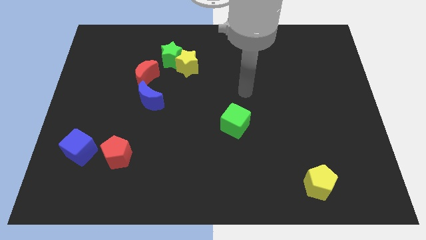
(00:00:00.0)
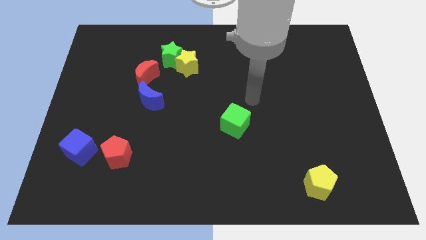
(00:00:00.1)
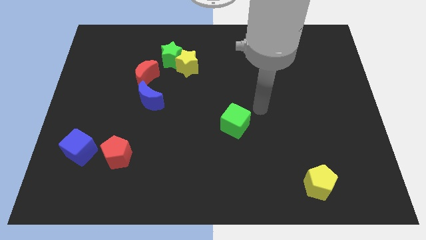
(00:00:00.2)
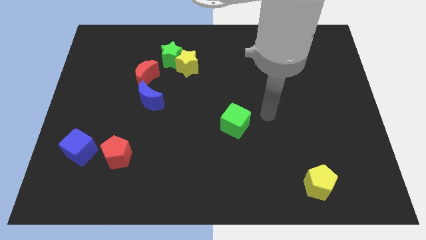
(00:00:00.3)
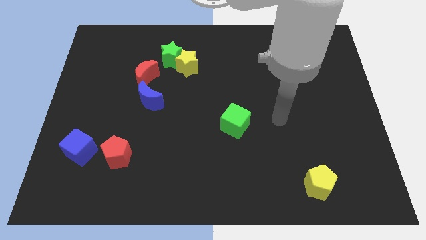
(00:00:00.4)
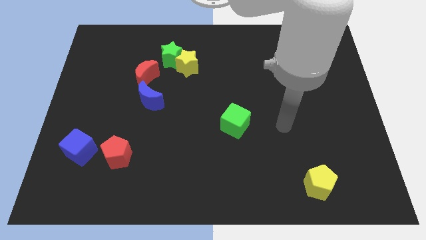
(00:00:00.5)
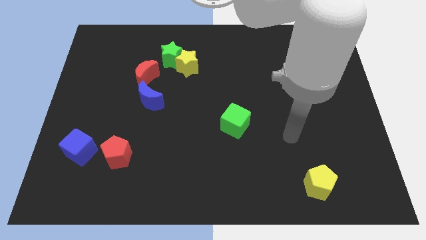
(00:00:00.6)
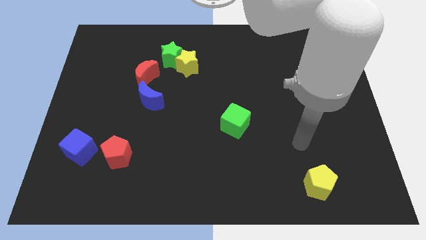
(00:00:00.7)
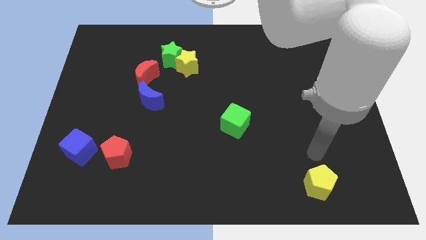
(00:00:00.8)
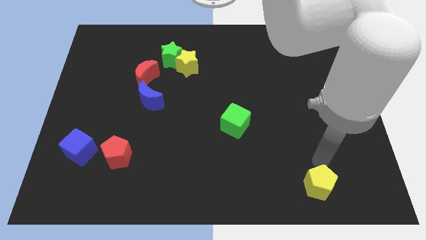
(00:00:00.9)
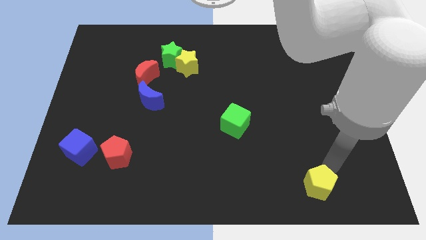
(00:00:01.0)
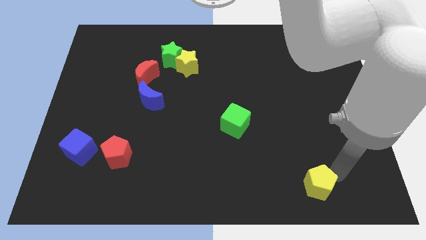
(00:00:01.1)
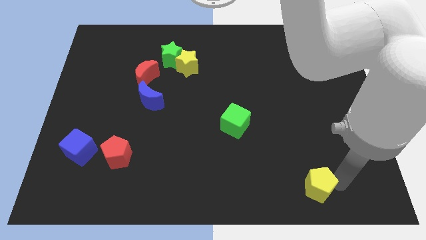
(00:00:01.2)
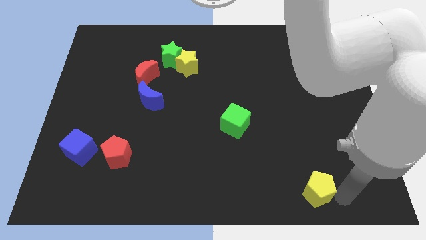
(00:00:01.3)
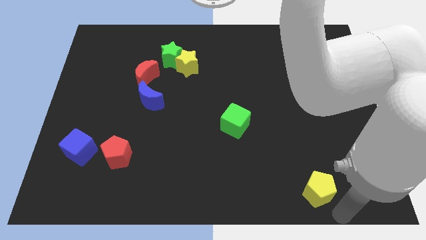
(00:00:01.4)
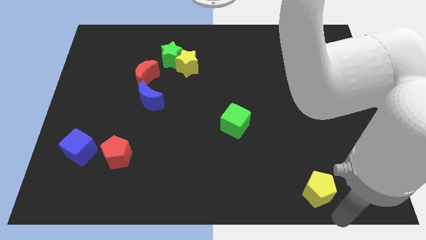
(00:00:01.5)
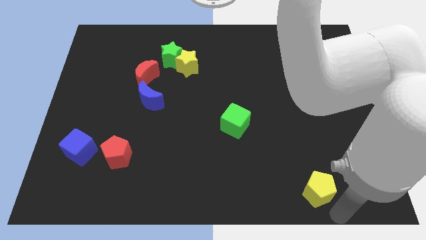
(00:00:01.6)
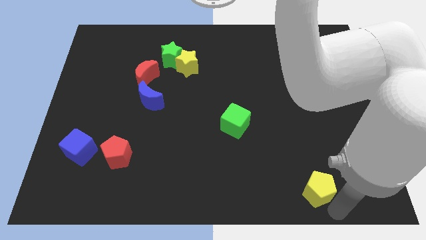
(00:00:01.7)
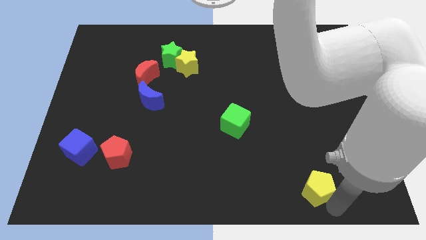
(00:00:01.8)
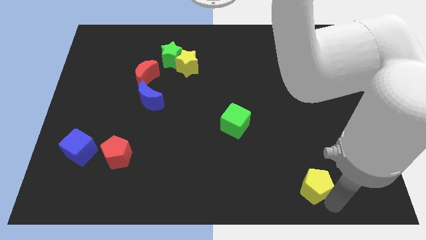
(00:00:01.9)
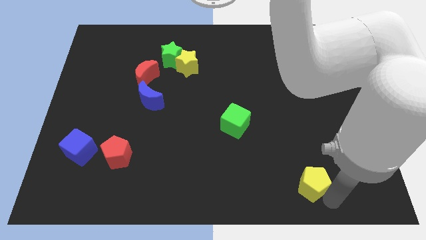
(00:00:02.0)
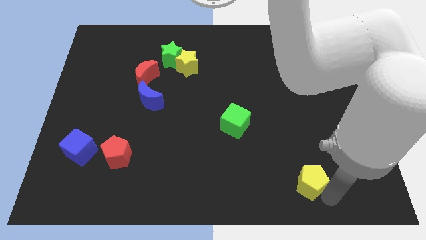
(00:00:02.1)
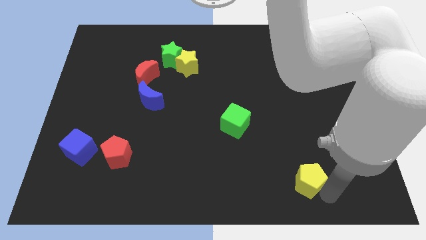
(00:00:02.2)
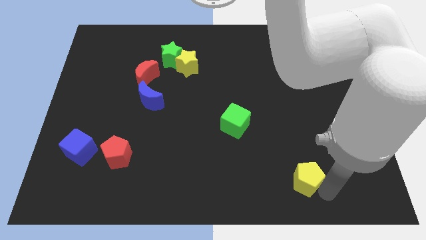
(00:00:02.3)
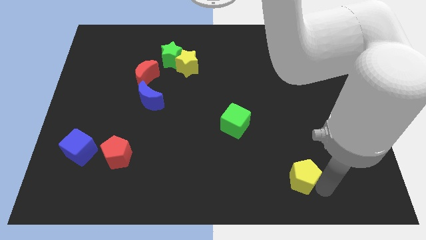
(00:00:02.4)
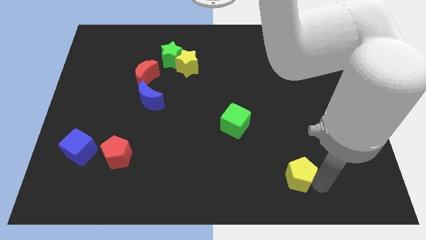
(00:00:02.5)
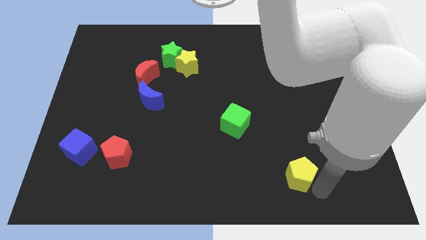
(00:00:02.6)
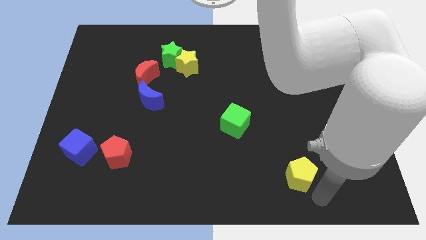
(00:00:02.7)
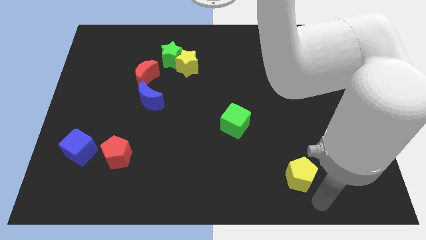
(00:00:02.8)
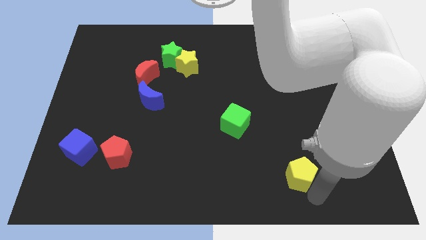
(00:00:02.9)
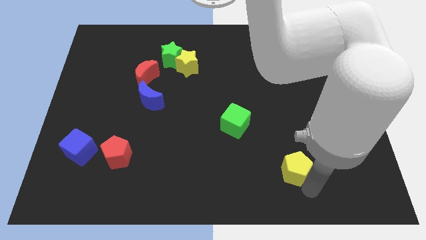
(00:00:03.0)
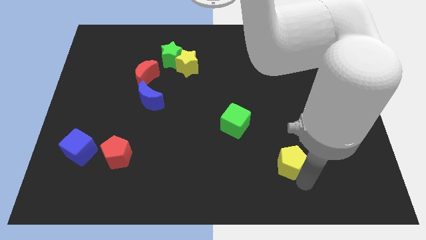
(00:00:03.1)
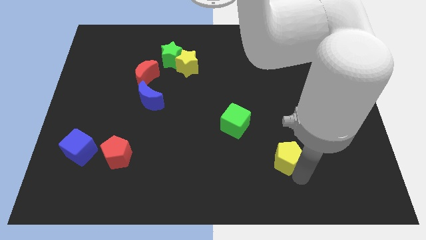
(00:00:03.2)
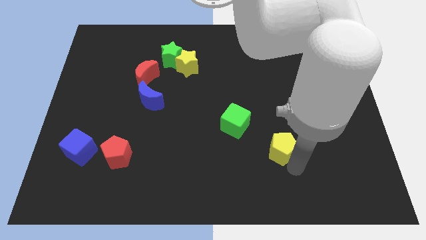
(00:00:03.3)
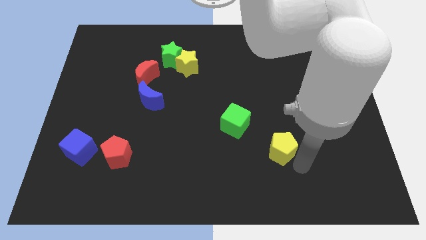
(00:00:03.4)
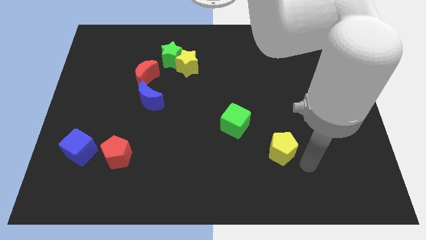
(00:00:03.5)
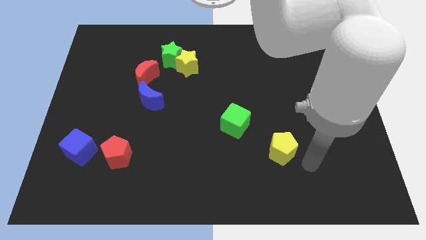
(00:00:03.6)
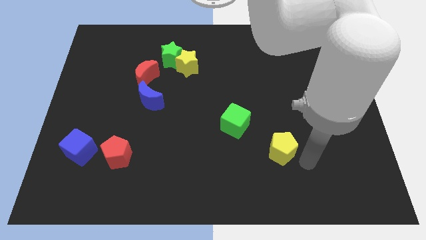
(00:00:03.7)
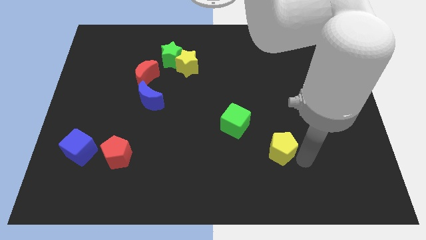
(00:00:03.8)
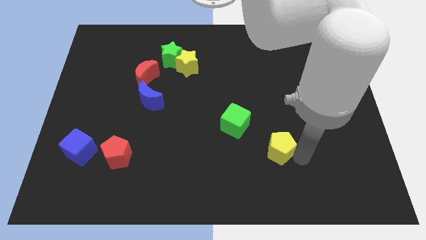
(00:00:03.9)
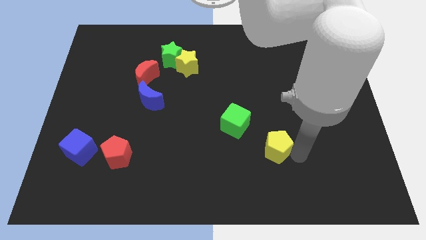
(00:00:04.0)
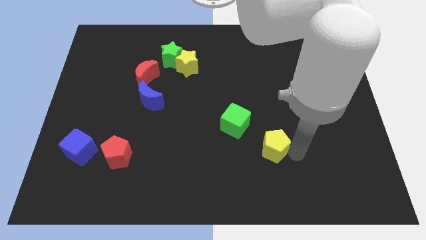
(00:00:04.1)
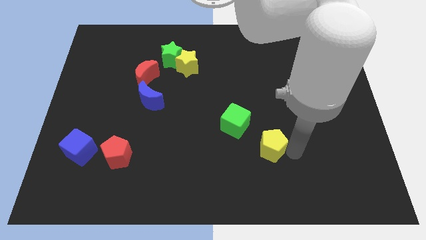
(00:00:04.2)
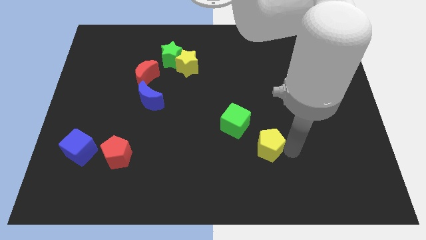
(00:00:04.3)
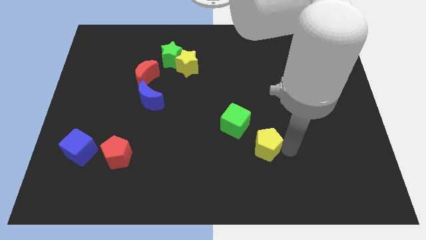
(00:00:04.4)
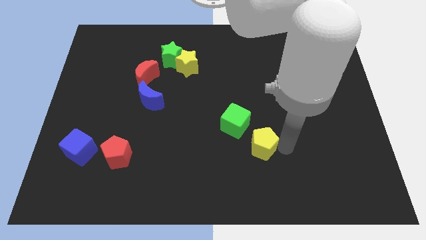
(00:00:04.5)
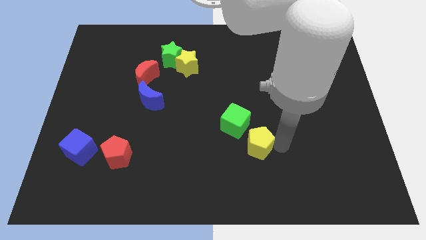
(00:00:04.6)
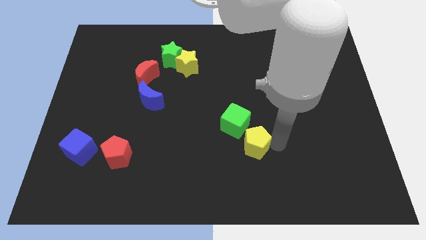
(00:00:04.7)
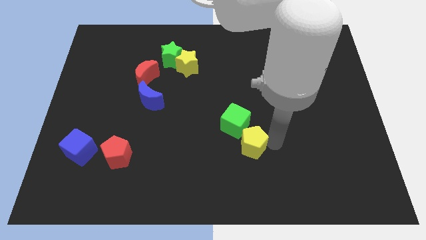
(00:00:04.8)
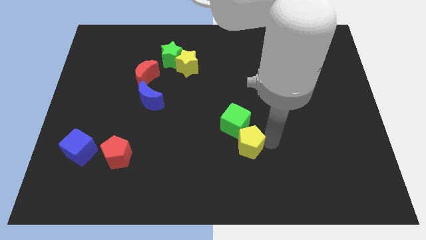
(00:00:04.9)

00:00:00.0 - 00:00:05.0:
put the yellow pentagon close to the green cube

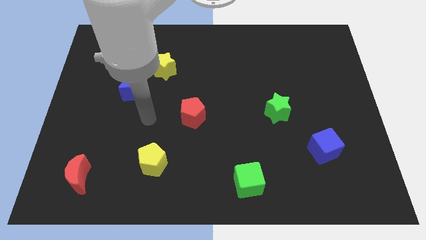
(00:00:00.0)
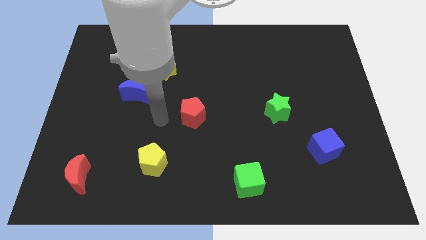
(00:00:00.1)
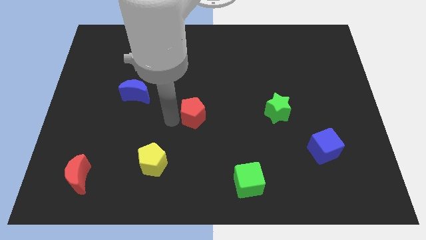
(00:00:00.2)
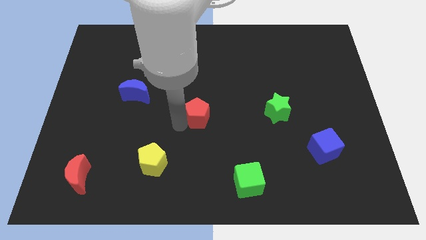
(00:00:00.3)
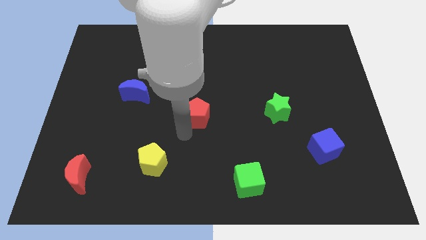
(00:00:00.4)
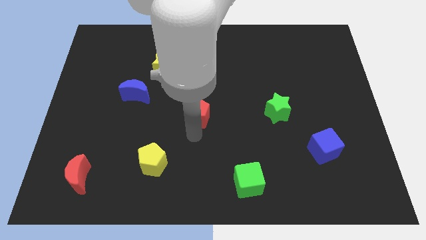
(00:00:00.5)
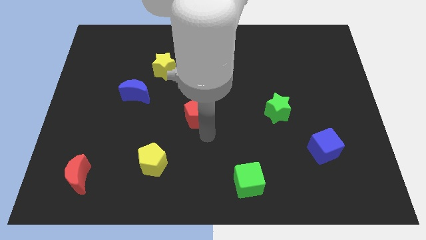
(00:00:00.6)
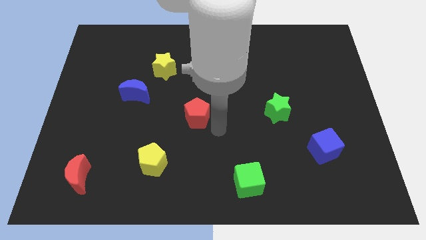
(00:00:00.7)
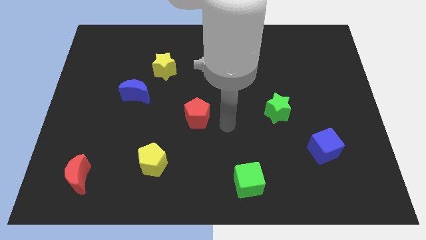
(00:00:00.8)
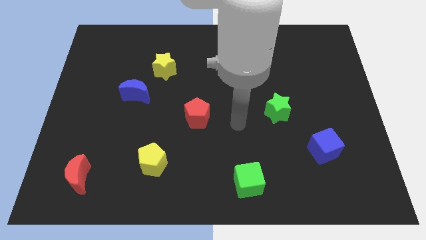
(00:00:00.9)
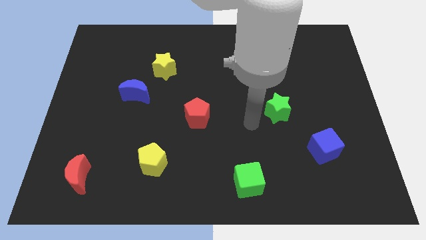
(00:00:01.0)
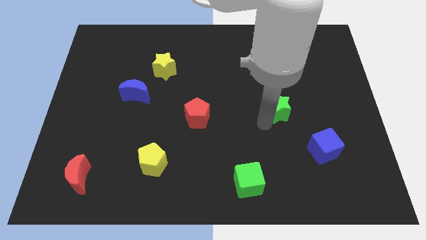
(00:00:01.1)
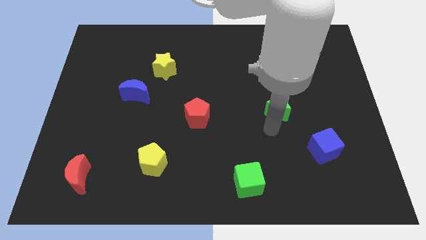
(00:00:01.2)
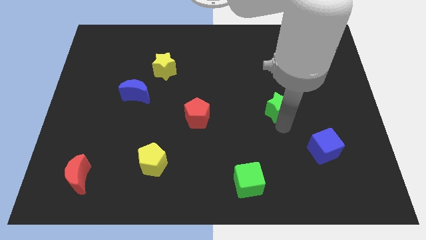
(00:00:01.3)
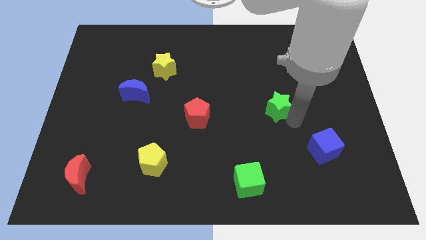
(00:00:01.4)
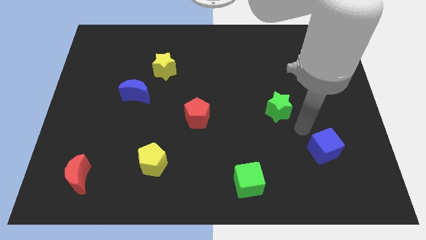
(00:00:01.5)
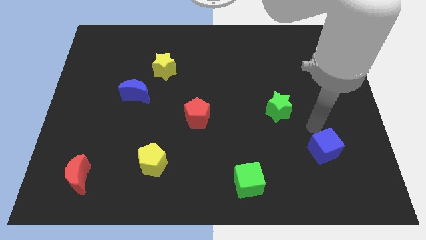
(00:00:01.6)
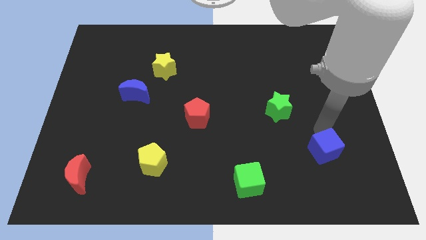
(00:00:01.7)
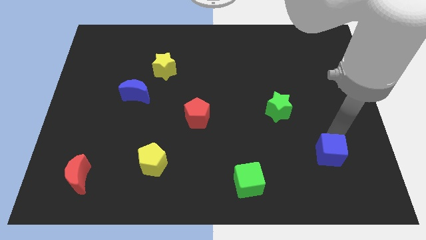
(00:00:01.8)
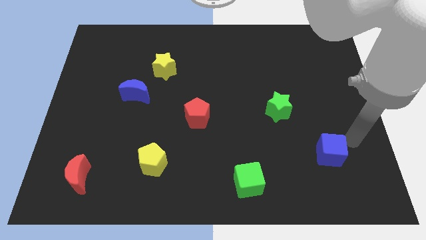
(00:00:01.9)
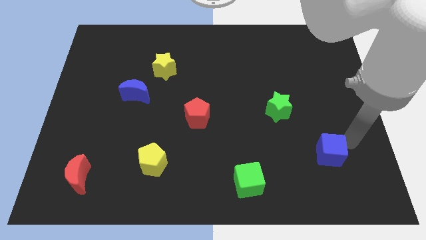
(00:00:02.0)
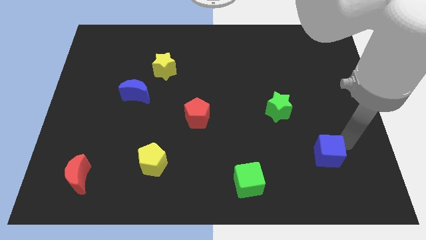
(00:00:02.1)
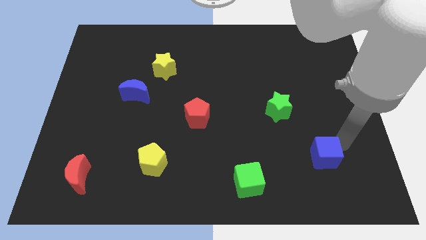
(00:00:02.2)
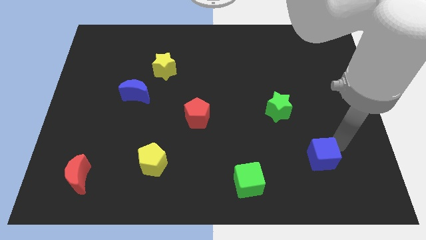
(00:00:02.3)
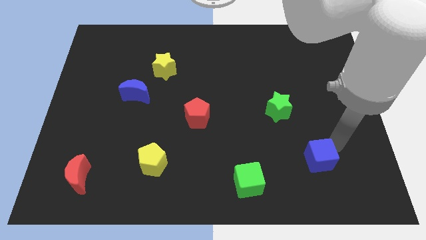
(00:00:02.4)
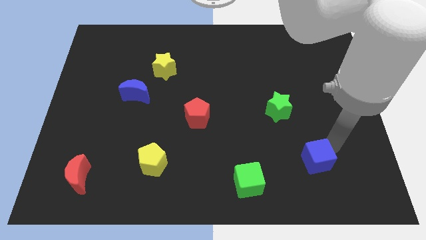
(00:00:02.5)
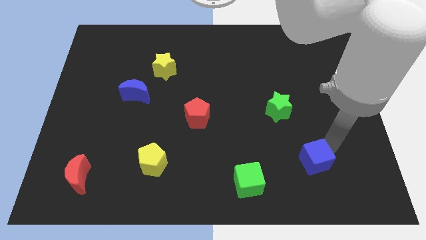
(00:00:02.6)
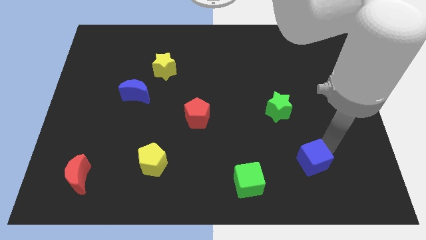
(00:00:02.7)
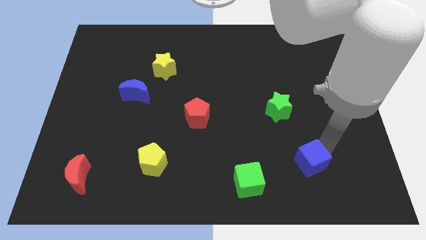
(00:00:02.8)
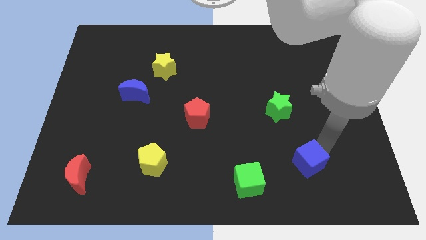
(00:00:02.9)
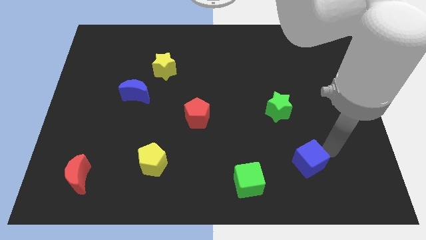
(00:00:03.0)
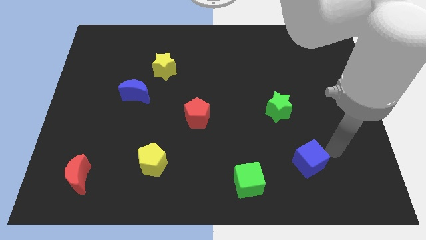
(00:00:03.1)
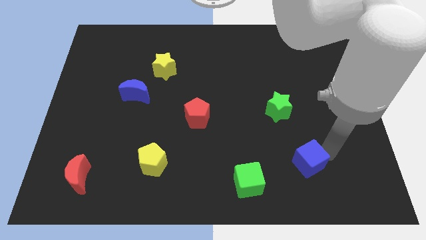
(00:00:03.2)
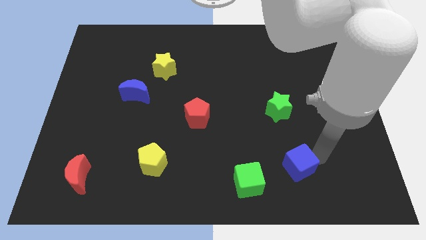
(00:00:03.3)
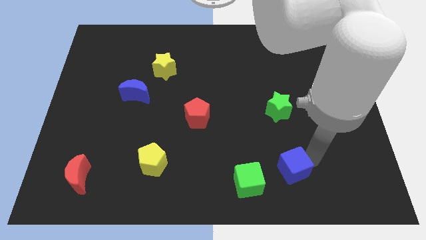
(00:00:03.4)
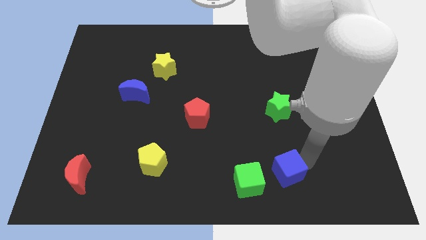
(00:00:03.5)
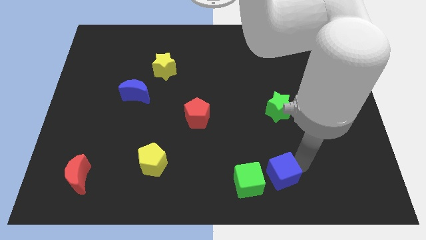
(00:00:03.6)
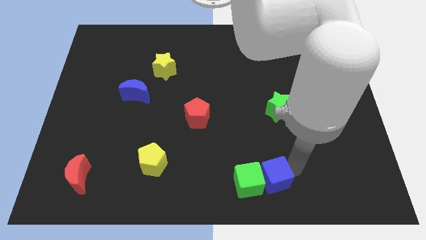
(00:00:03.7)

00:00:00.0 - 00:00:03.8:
push the blue cube next to the green cube
